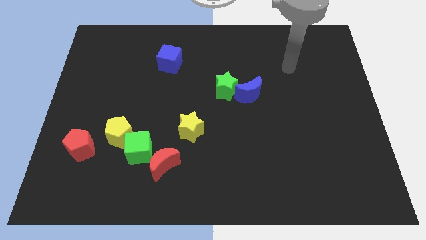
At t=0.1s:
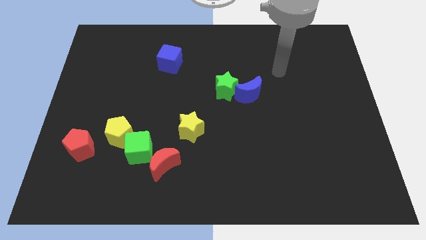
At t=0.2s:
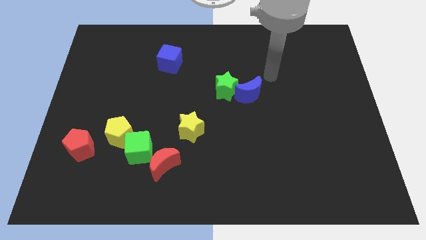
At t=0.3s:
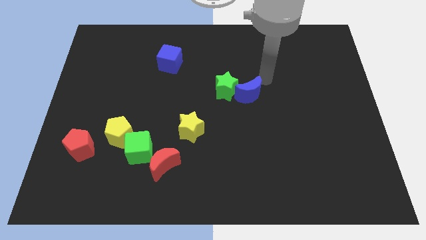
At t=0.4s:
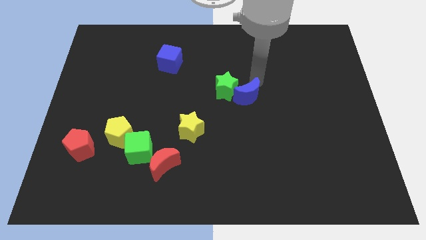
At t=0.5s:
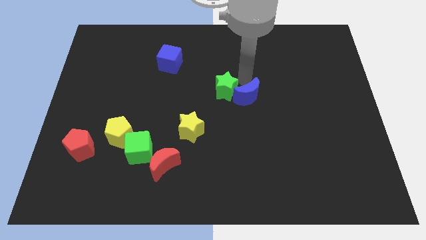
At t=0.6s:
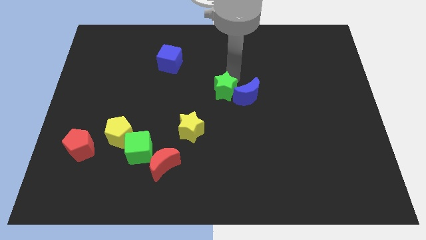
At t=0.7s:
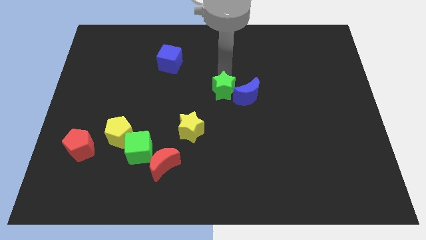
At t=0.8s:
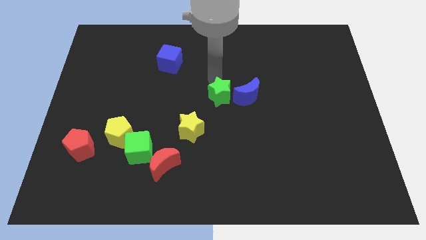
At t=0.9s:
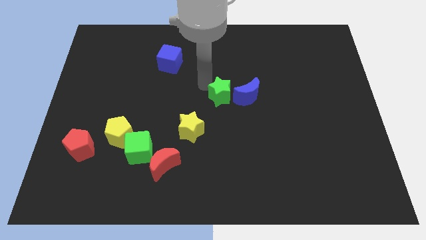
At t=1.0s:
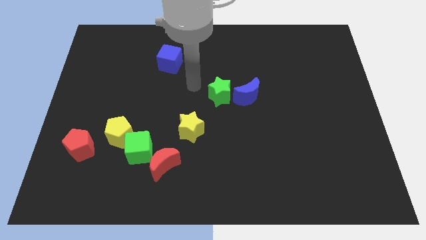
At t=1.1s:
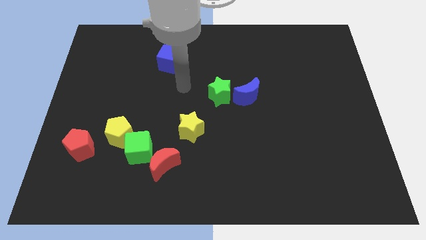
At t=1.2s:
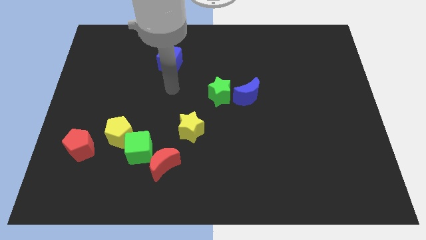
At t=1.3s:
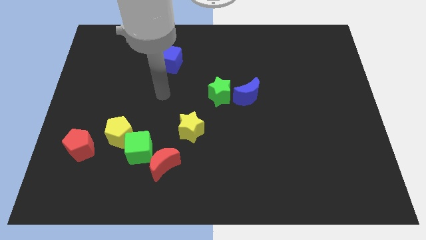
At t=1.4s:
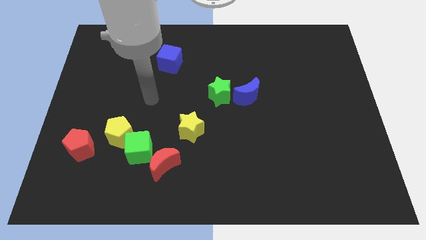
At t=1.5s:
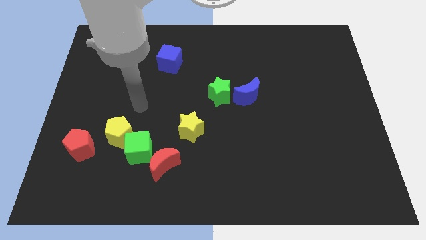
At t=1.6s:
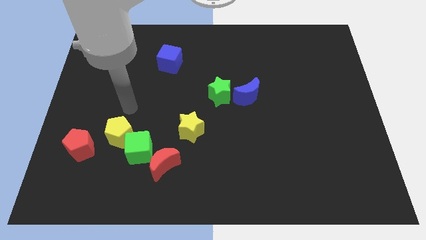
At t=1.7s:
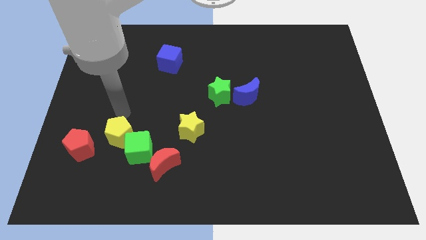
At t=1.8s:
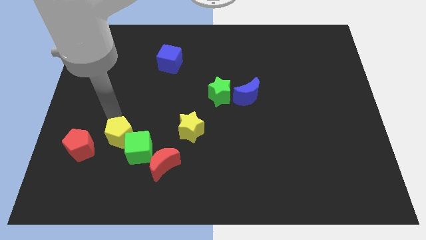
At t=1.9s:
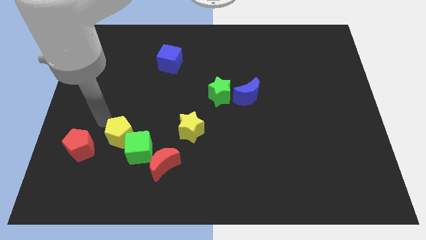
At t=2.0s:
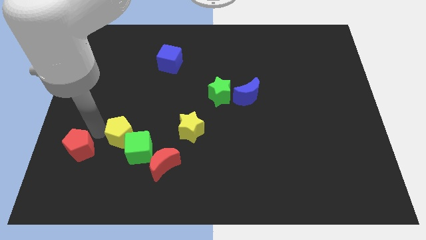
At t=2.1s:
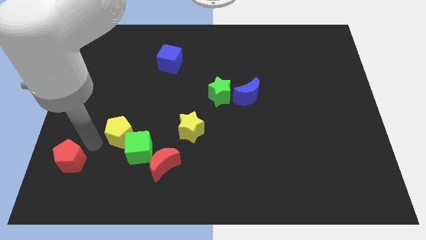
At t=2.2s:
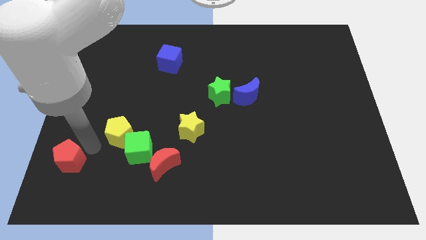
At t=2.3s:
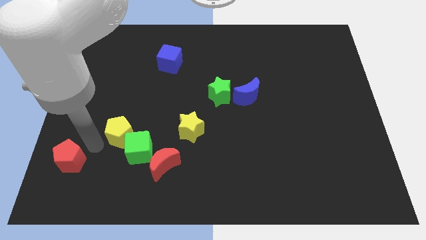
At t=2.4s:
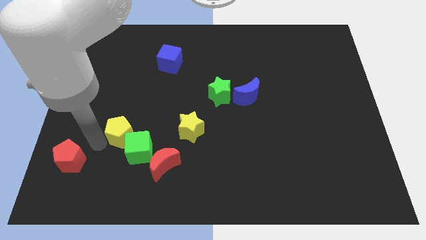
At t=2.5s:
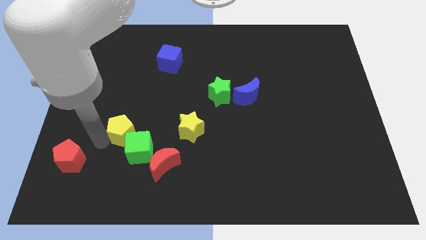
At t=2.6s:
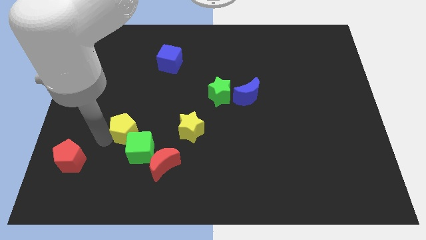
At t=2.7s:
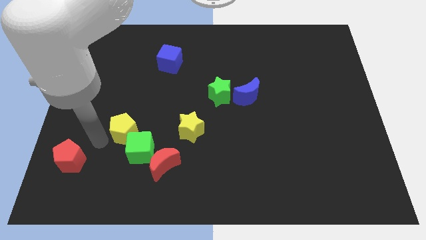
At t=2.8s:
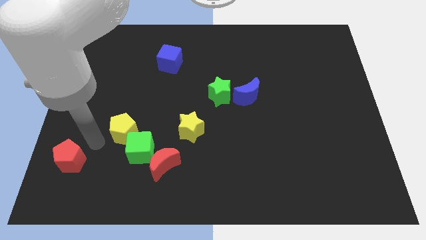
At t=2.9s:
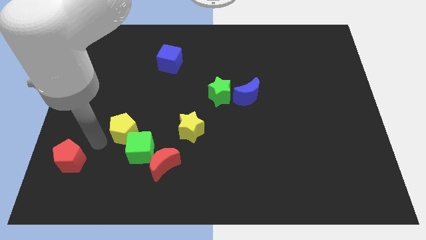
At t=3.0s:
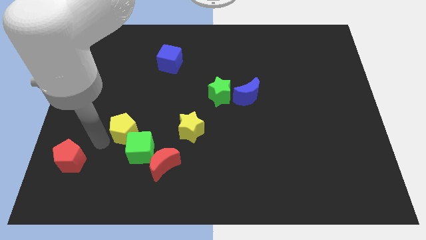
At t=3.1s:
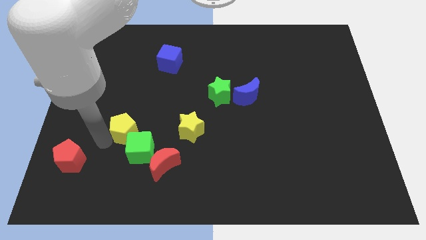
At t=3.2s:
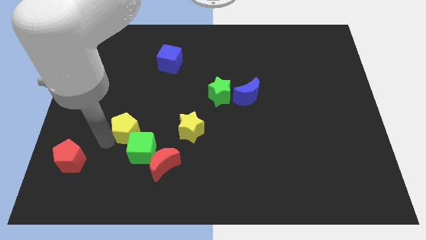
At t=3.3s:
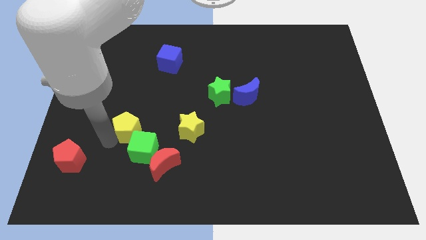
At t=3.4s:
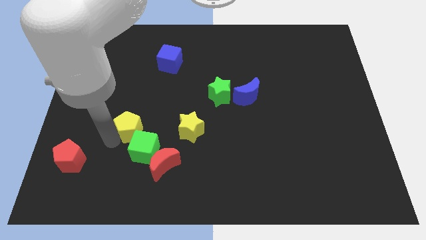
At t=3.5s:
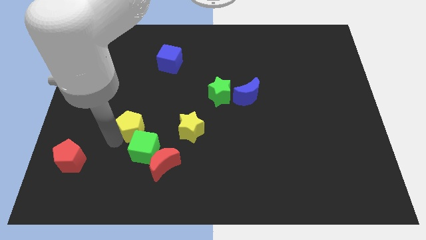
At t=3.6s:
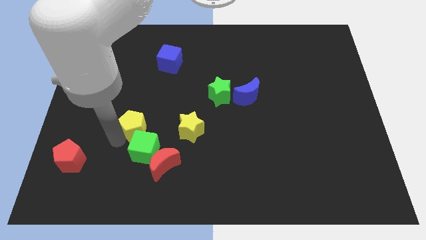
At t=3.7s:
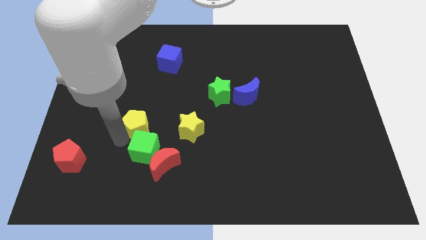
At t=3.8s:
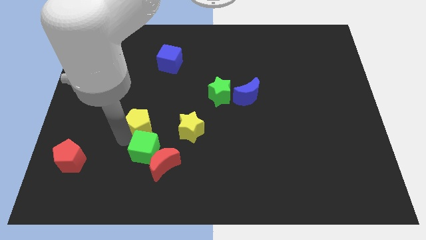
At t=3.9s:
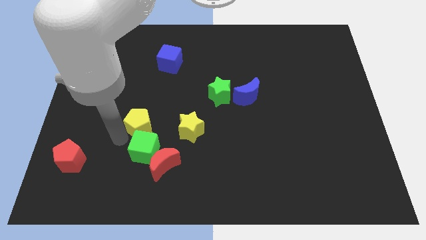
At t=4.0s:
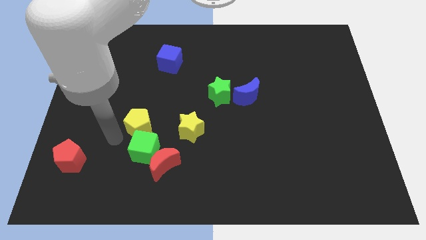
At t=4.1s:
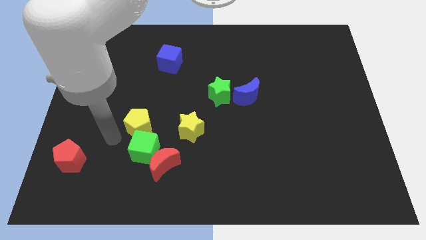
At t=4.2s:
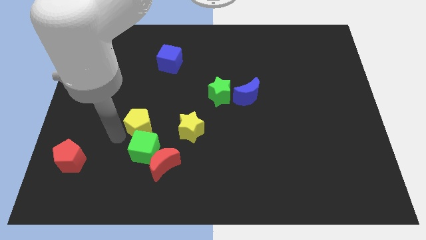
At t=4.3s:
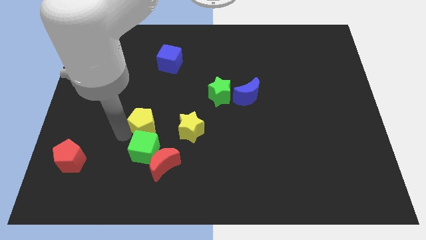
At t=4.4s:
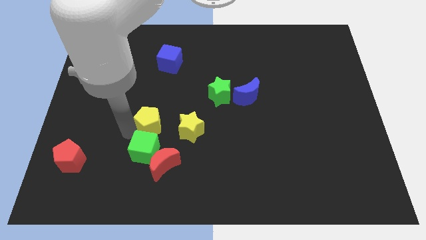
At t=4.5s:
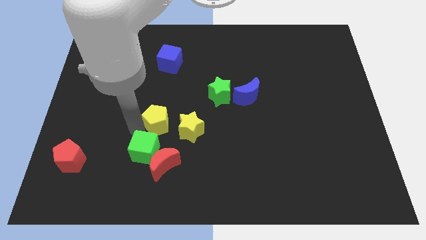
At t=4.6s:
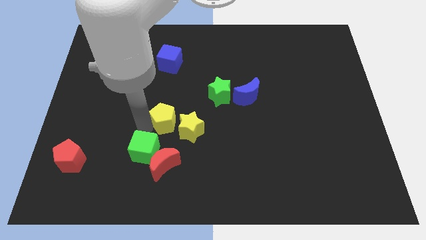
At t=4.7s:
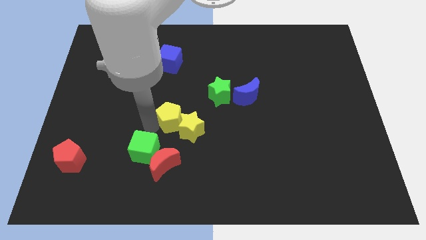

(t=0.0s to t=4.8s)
slide the yellow pentagon to the center of the board

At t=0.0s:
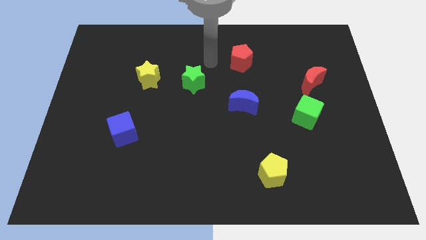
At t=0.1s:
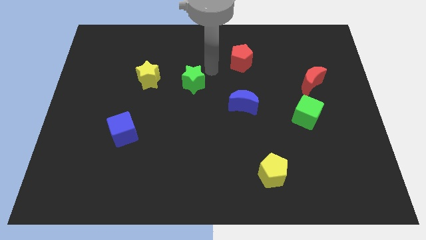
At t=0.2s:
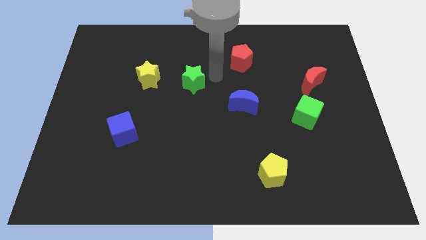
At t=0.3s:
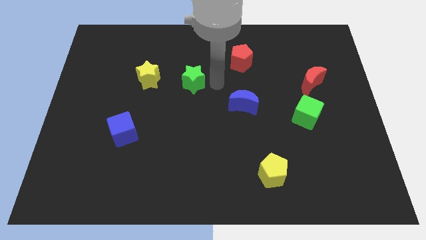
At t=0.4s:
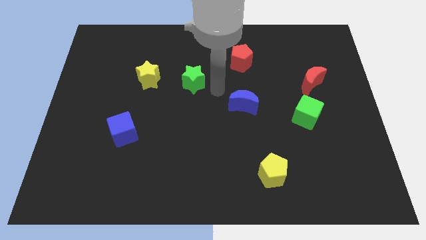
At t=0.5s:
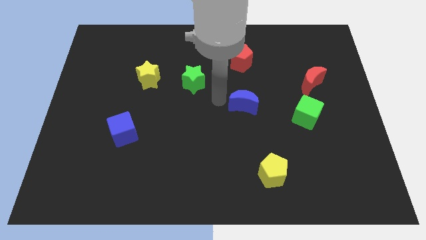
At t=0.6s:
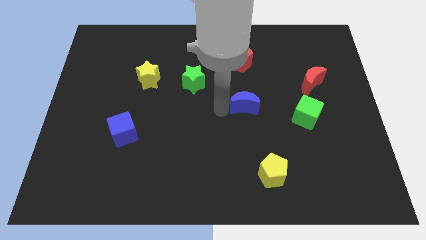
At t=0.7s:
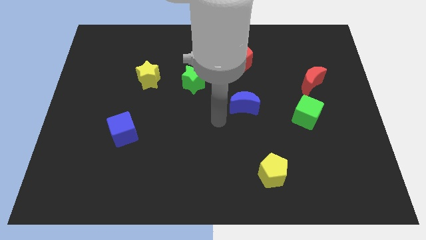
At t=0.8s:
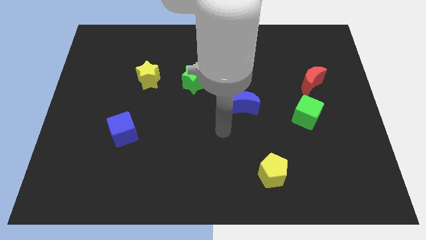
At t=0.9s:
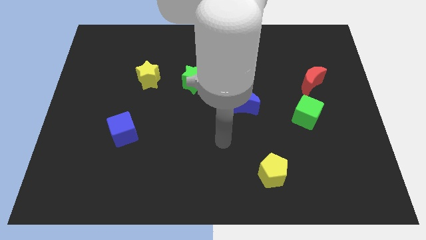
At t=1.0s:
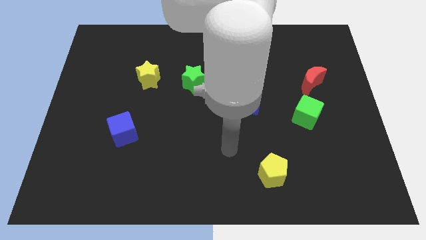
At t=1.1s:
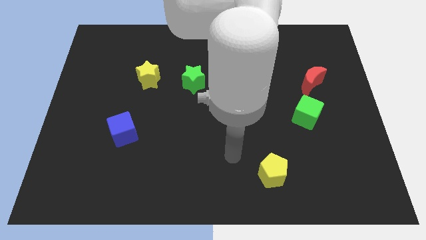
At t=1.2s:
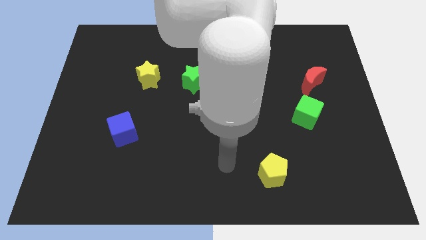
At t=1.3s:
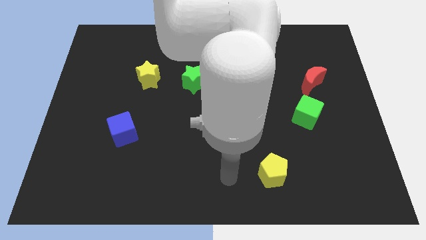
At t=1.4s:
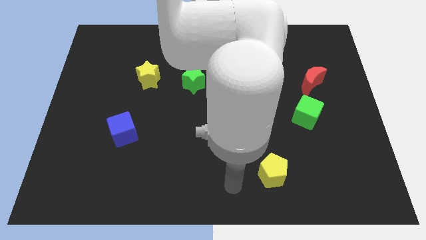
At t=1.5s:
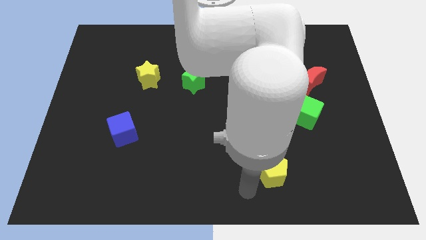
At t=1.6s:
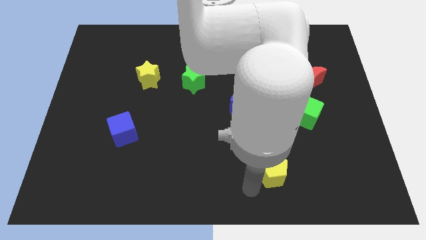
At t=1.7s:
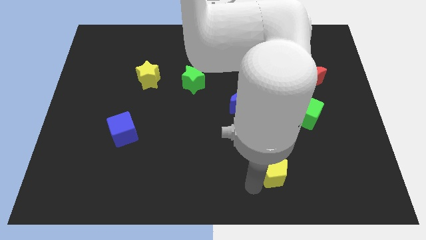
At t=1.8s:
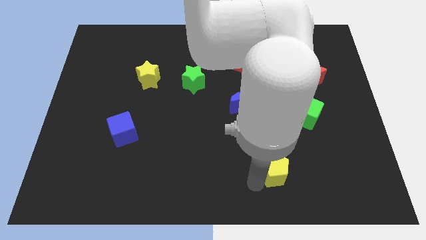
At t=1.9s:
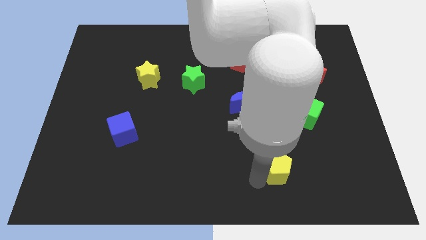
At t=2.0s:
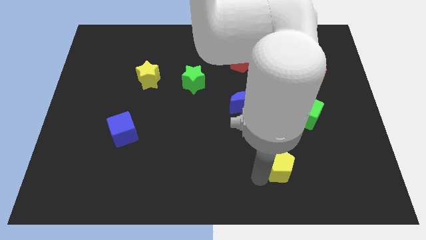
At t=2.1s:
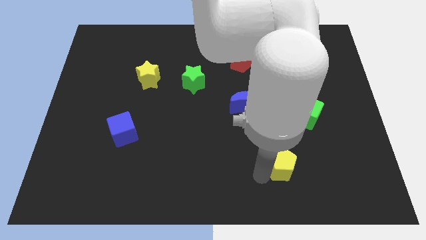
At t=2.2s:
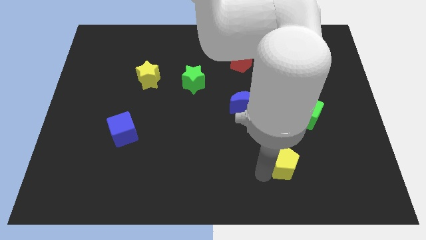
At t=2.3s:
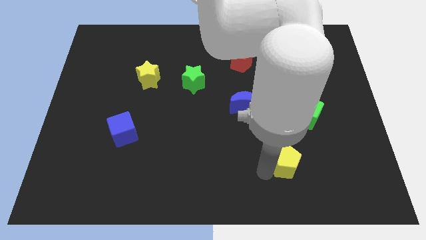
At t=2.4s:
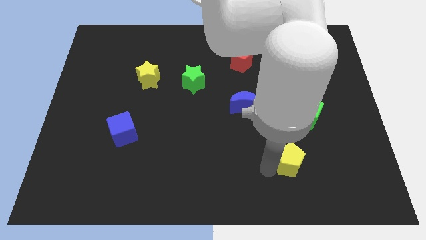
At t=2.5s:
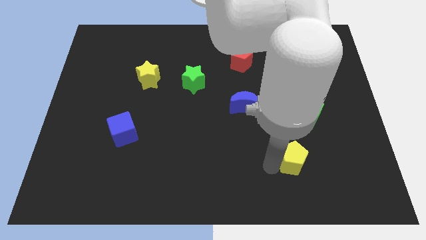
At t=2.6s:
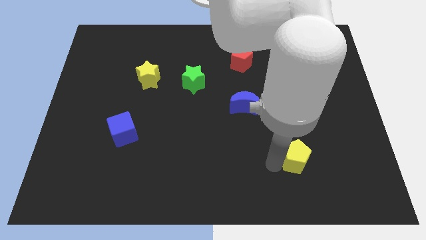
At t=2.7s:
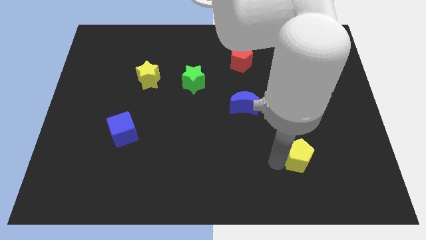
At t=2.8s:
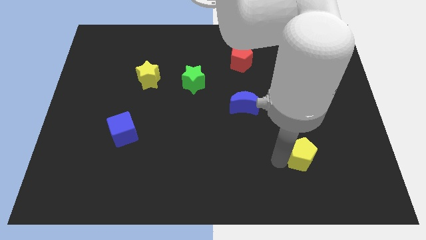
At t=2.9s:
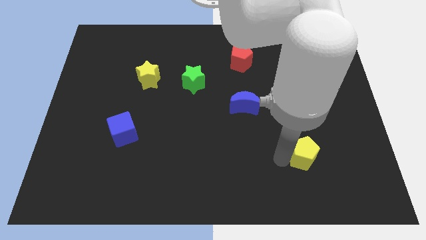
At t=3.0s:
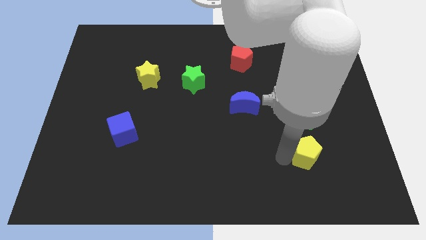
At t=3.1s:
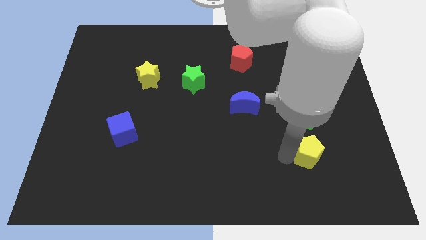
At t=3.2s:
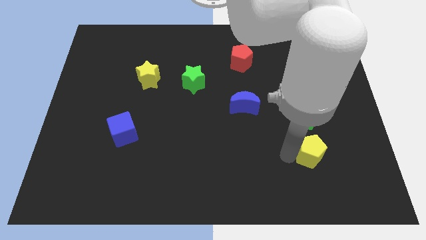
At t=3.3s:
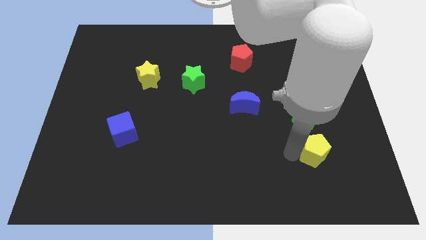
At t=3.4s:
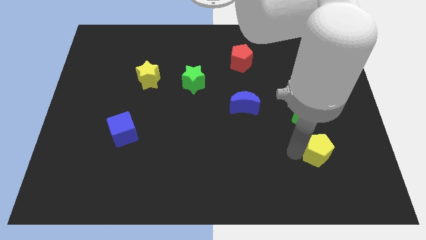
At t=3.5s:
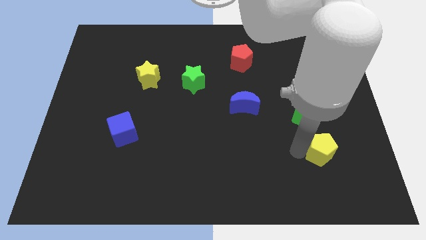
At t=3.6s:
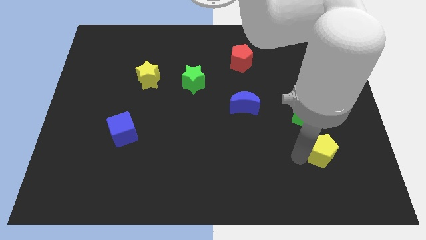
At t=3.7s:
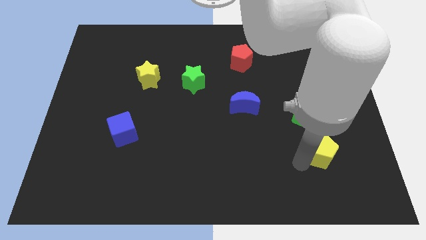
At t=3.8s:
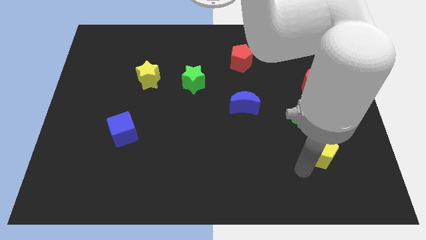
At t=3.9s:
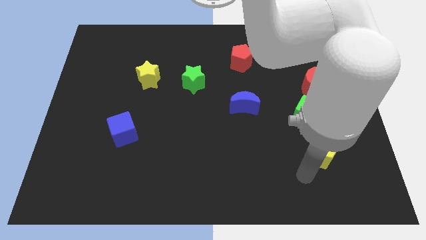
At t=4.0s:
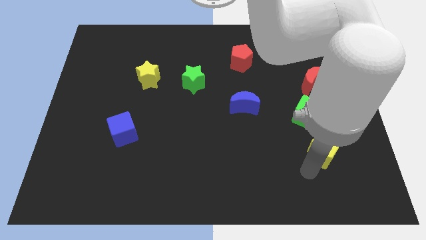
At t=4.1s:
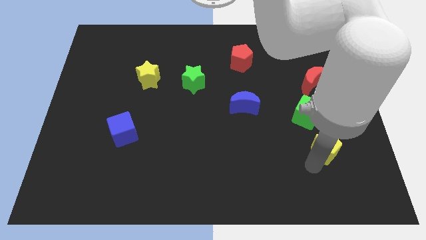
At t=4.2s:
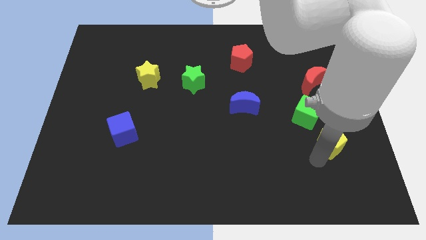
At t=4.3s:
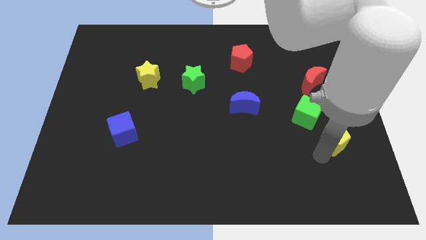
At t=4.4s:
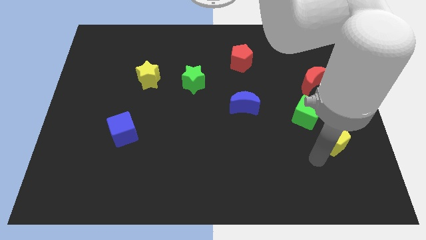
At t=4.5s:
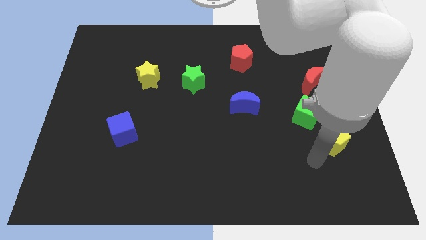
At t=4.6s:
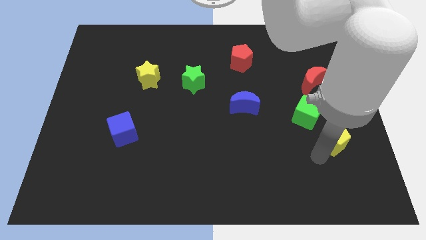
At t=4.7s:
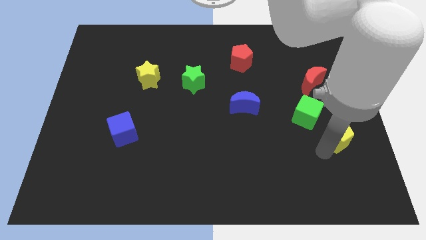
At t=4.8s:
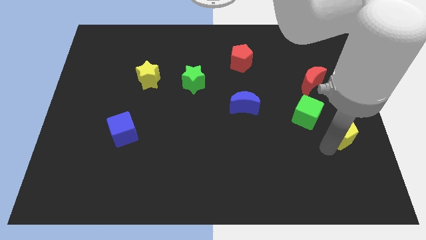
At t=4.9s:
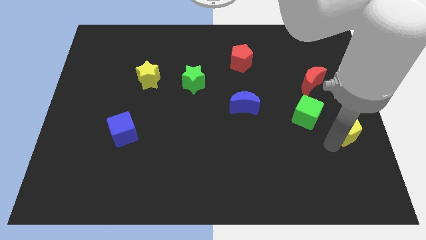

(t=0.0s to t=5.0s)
put the yellow pentagon to the right side of the board
